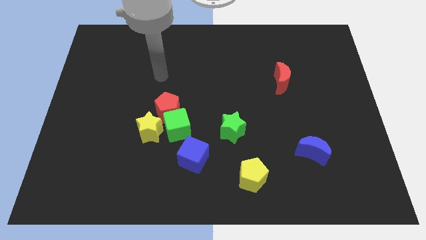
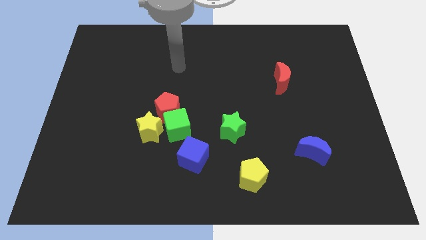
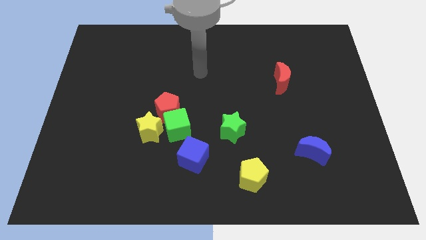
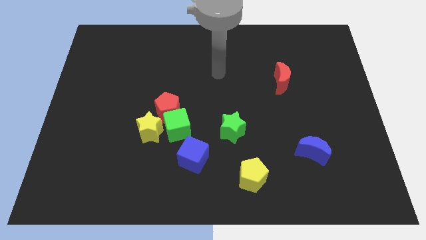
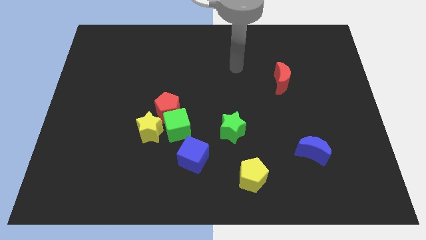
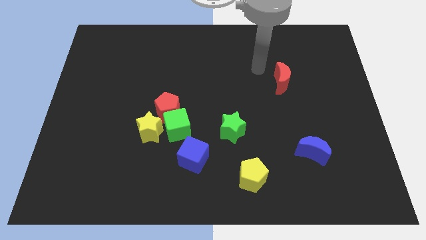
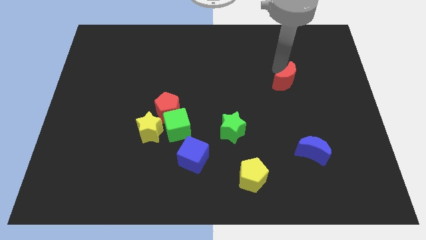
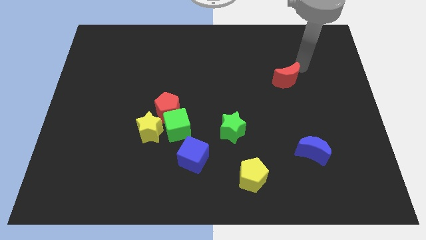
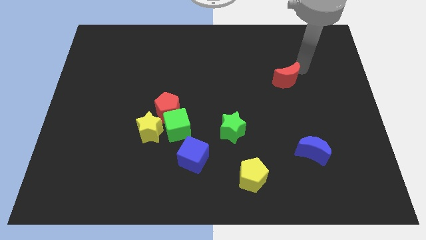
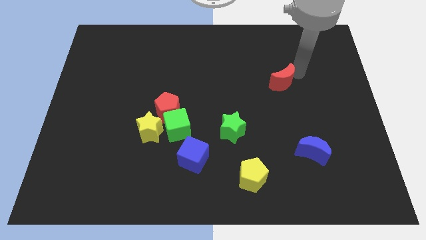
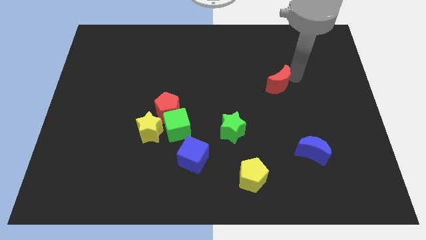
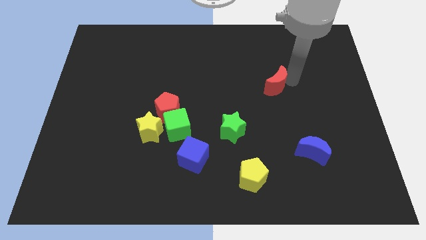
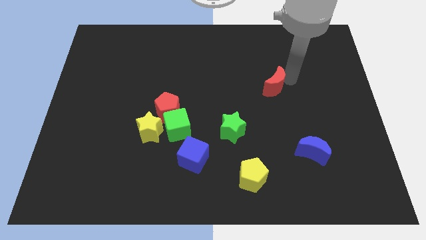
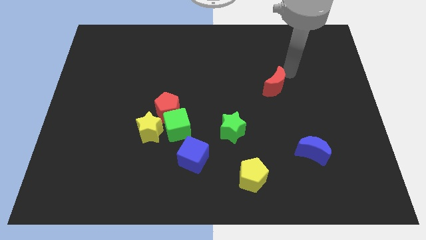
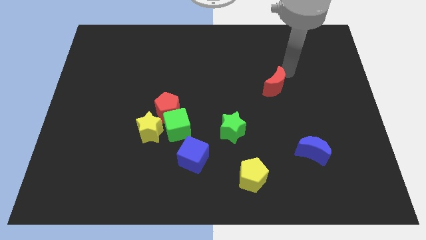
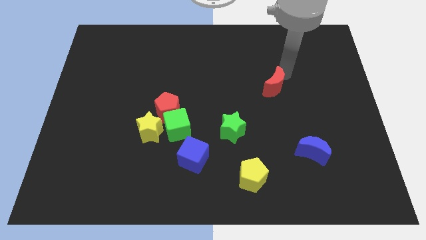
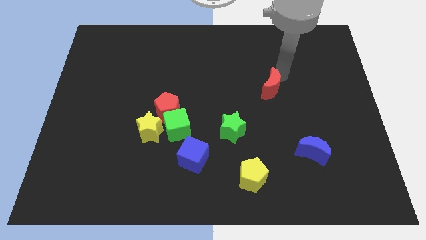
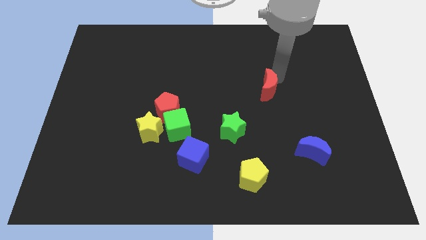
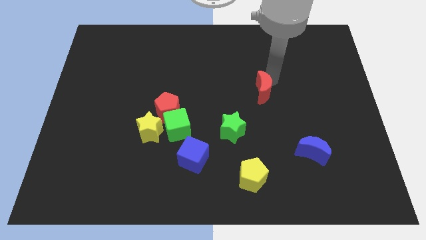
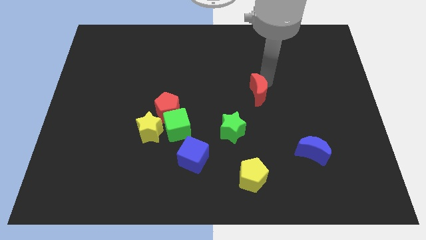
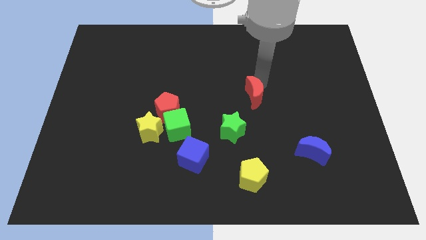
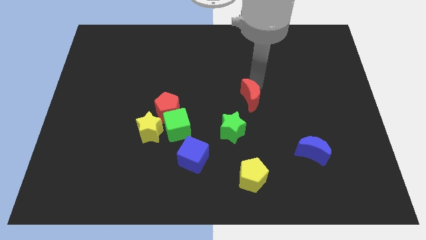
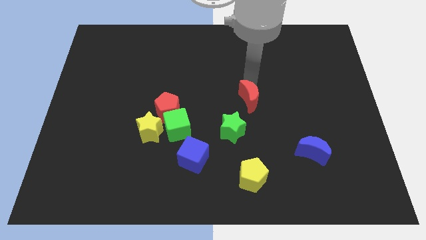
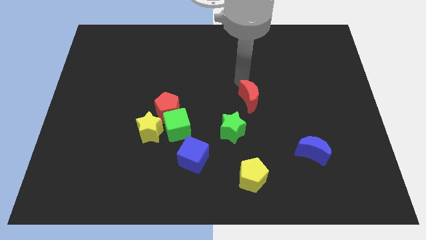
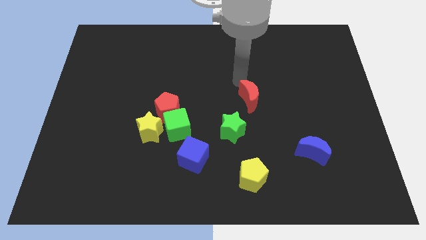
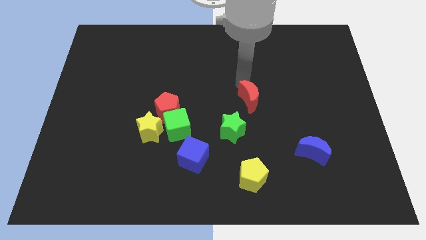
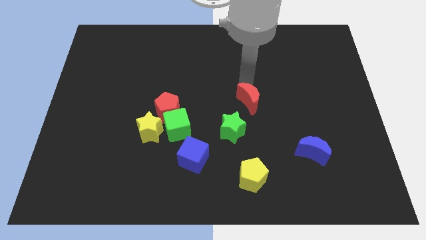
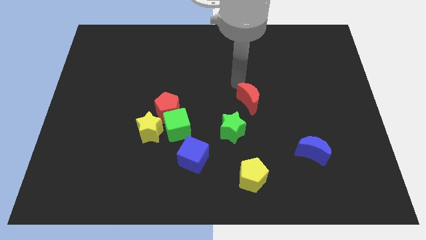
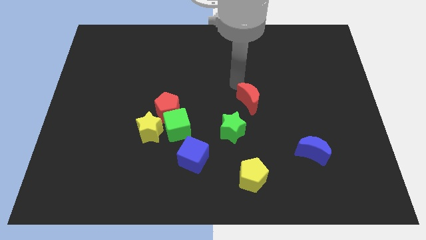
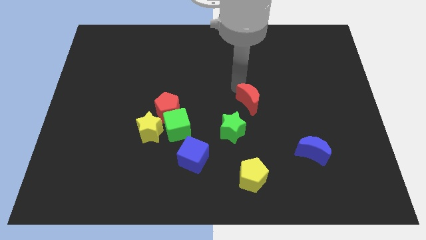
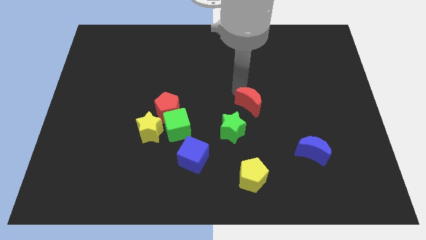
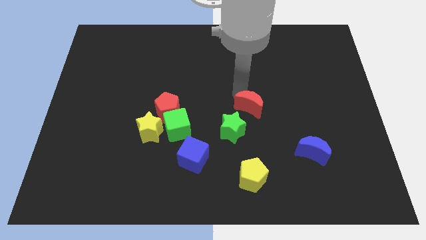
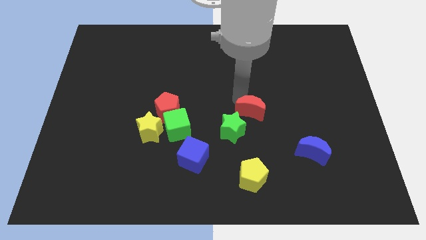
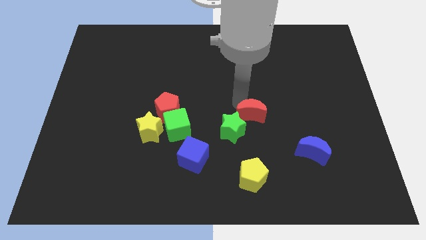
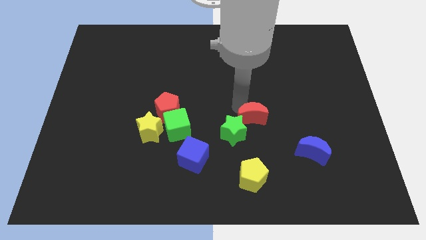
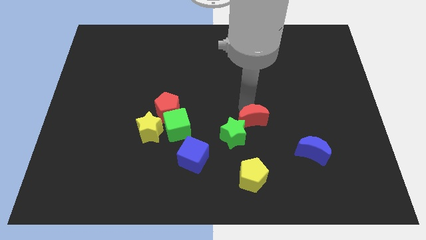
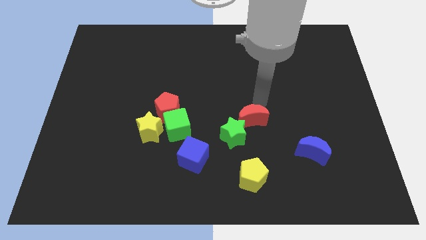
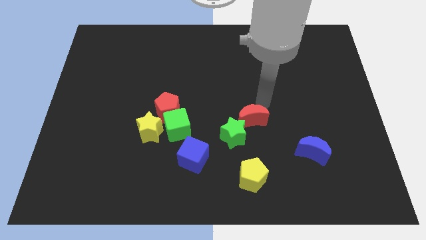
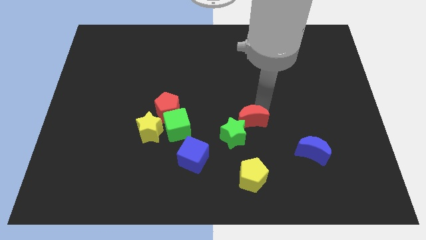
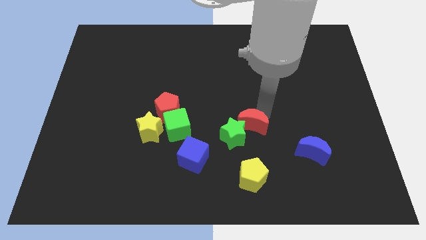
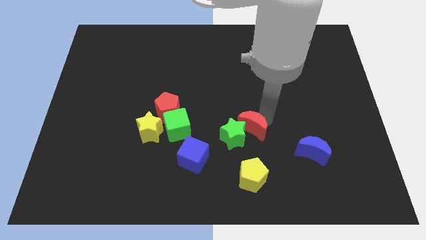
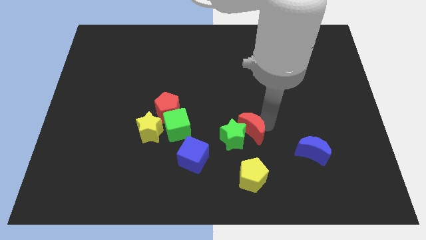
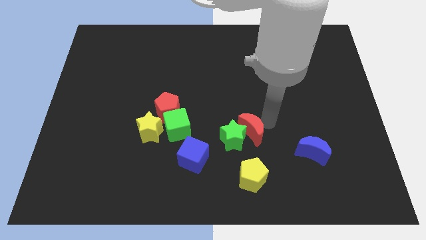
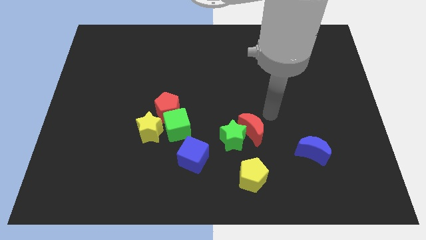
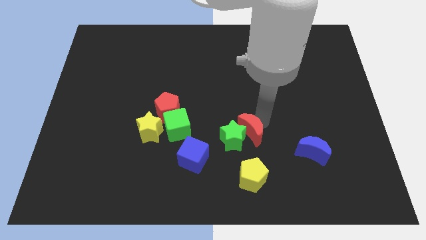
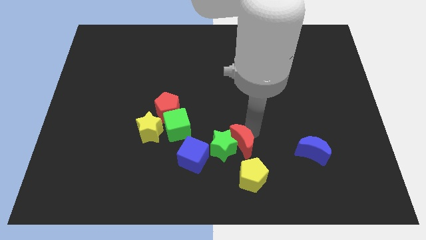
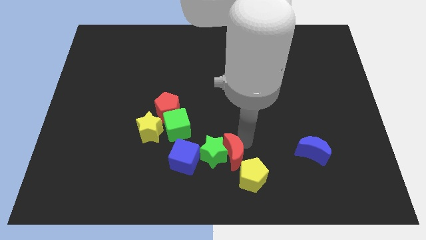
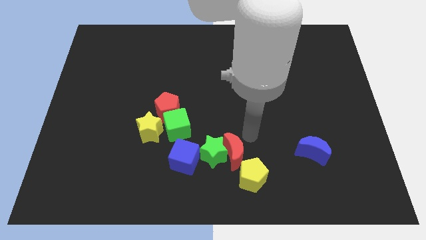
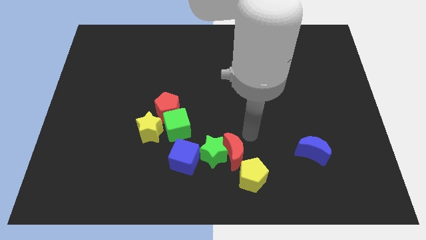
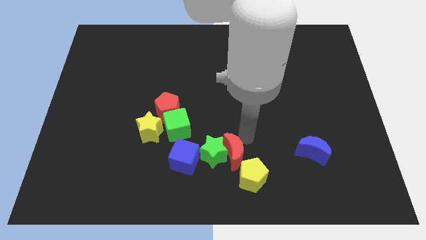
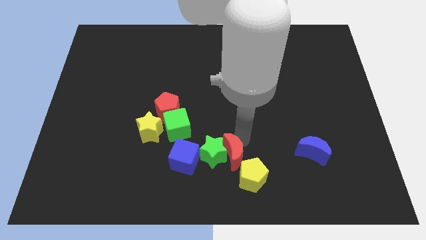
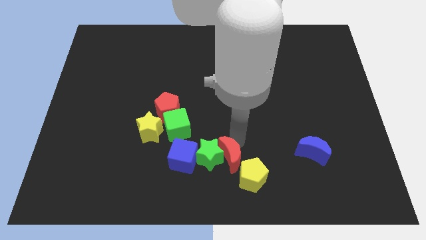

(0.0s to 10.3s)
move the red moon left of the yellow pentagon

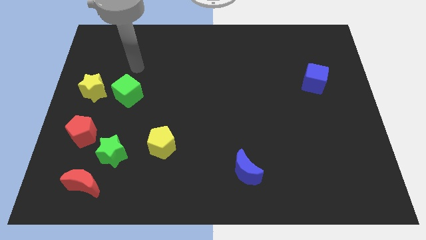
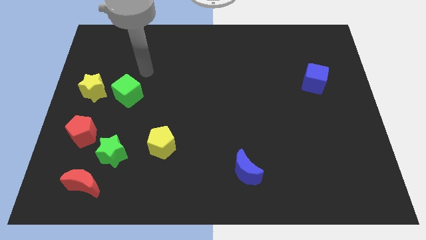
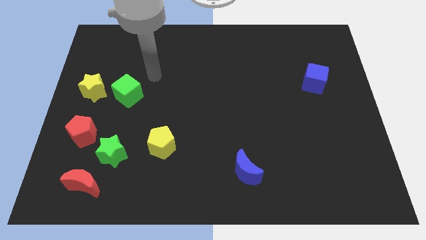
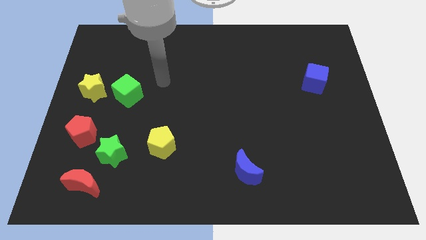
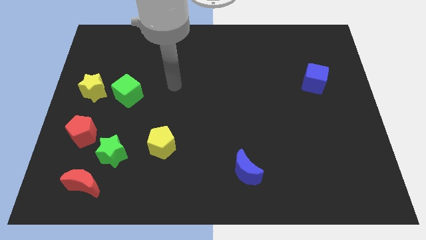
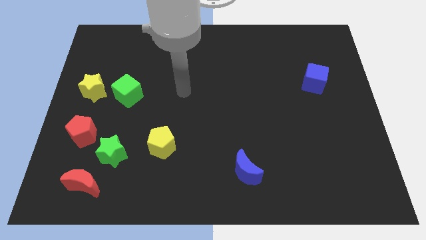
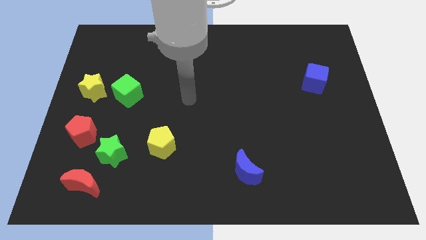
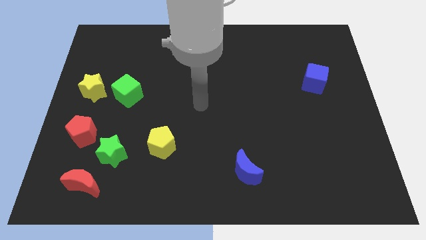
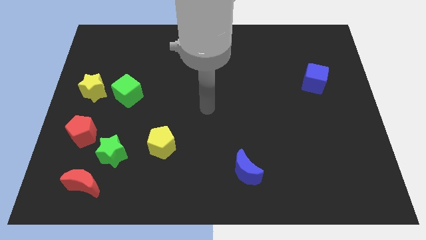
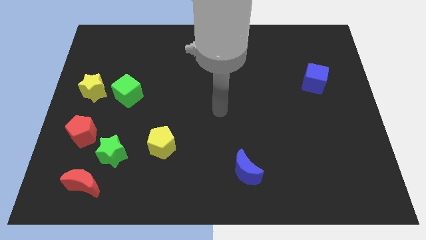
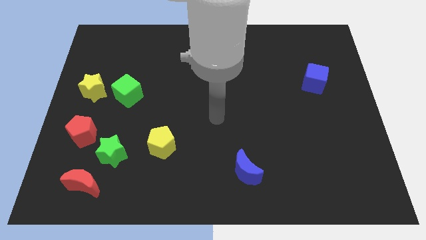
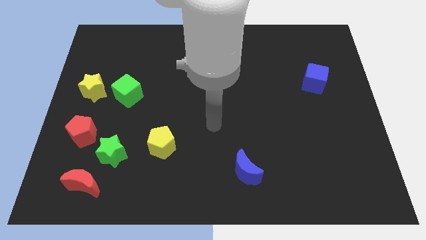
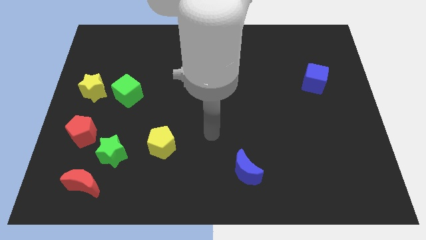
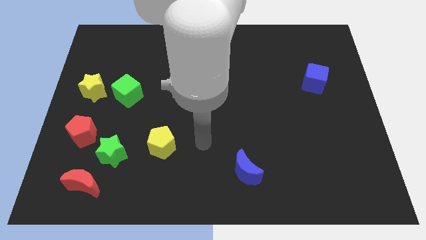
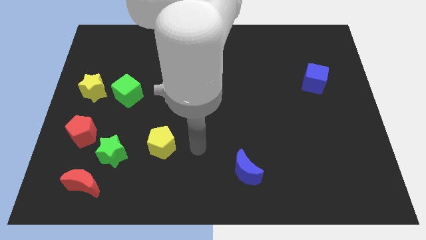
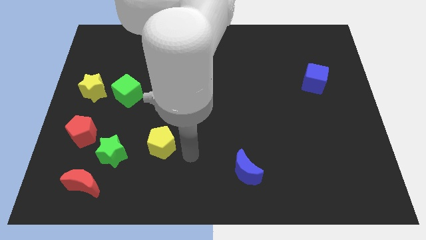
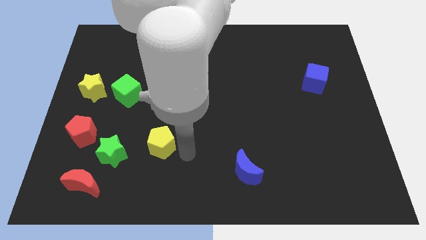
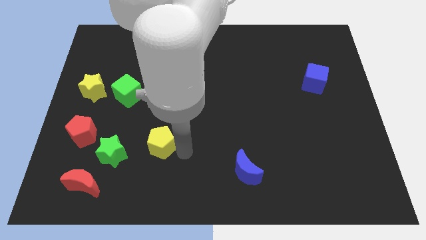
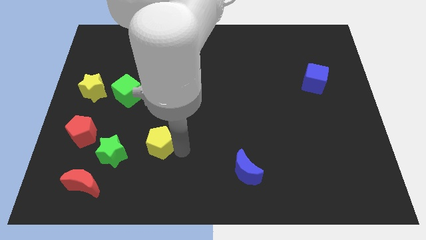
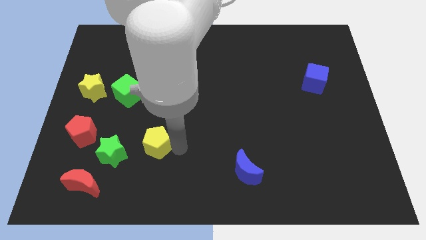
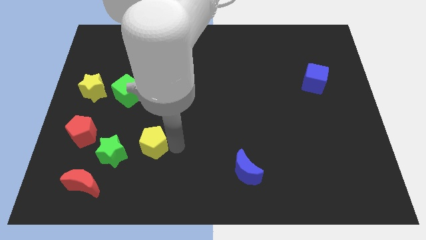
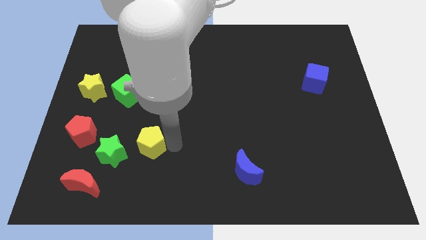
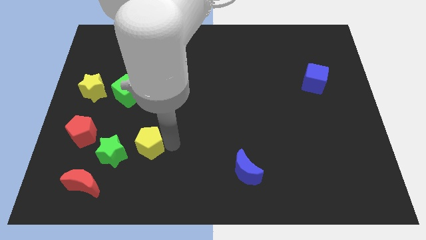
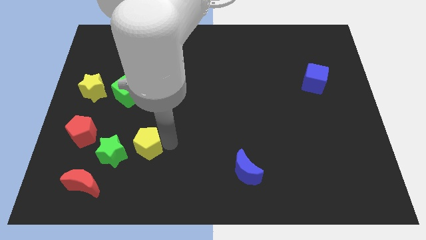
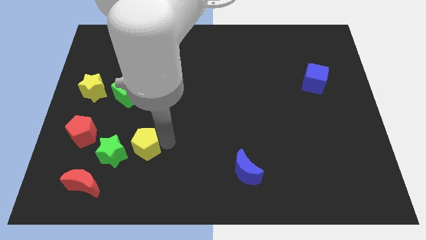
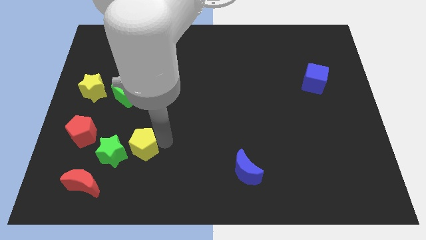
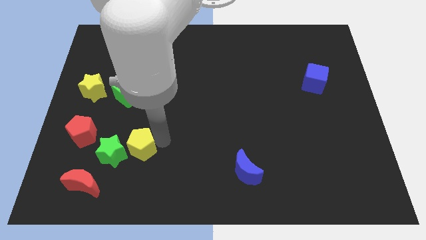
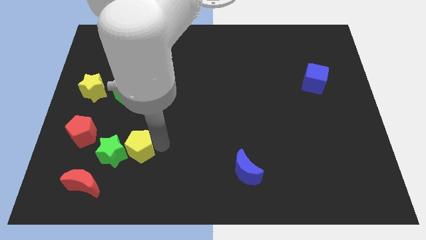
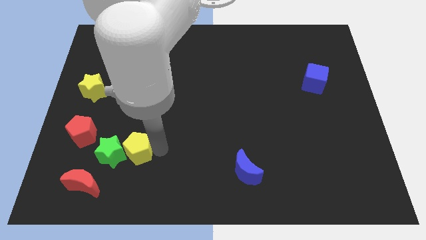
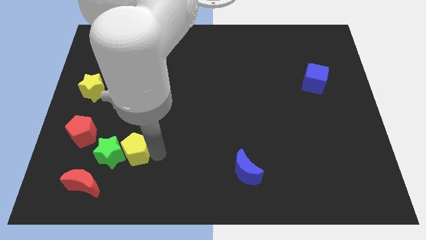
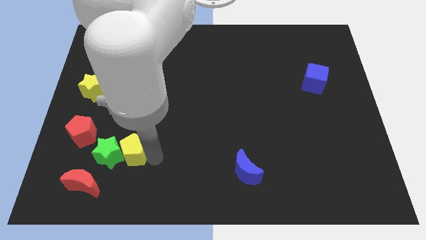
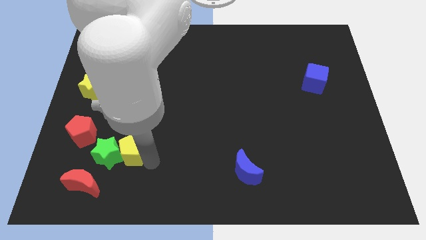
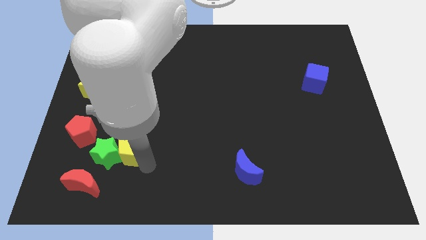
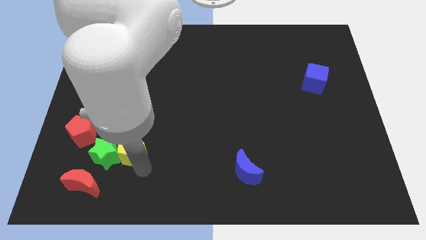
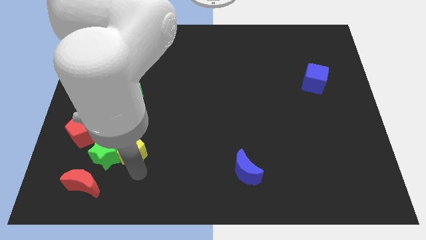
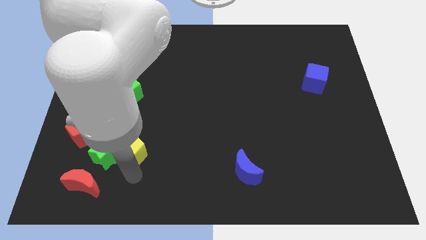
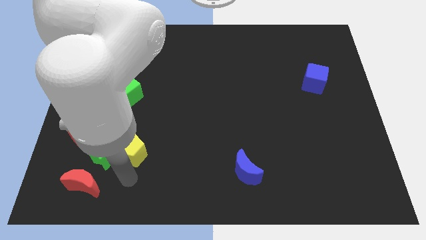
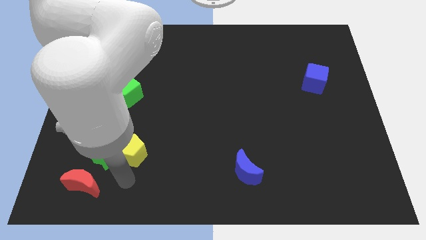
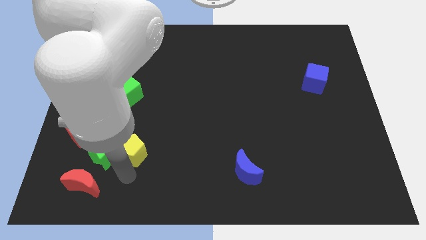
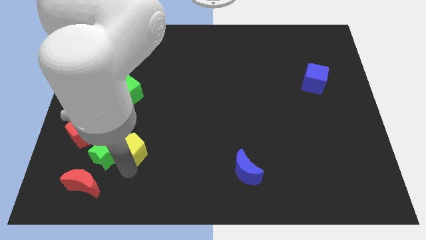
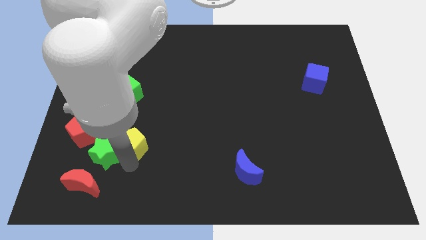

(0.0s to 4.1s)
move the yellow pentagon below the green cube
